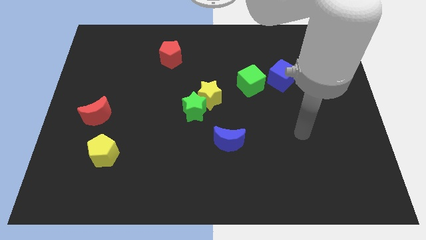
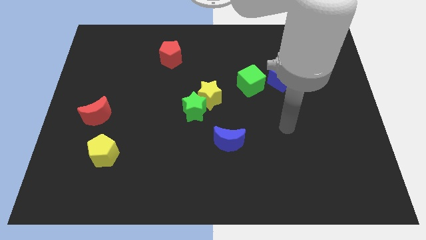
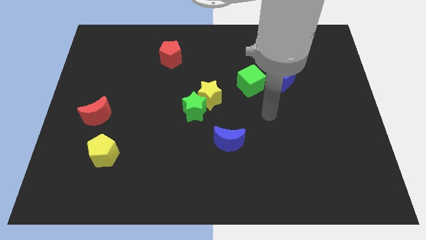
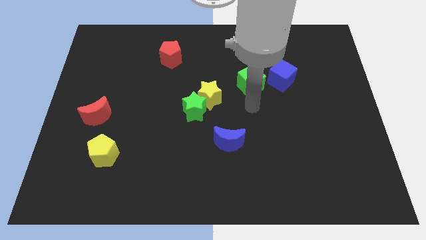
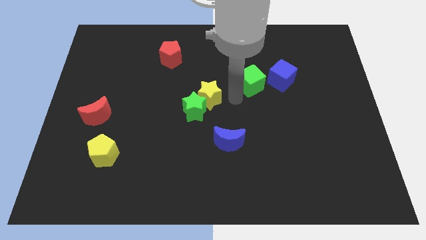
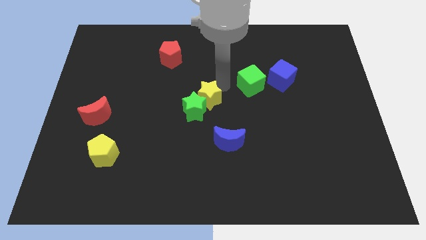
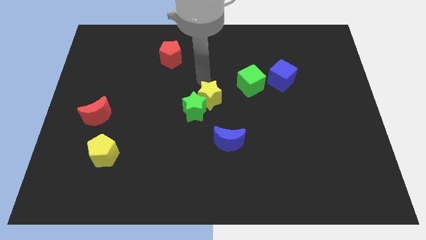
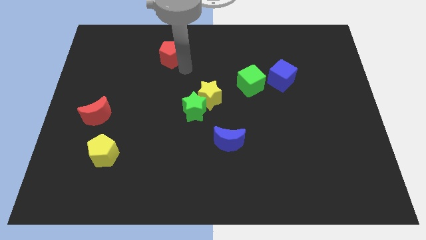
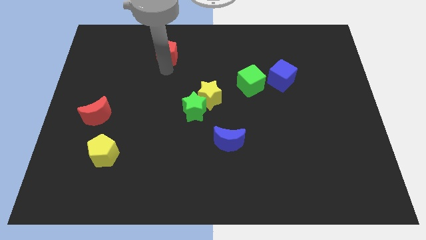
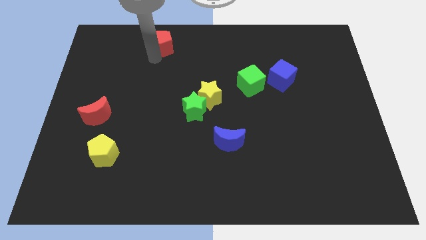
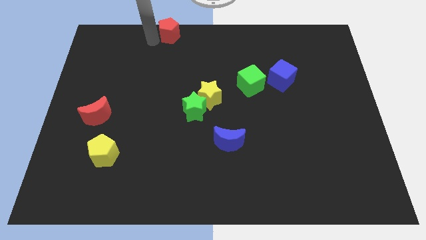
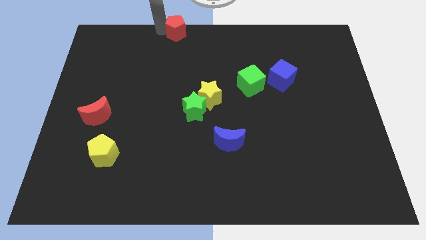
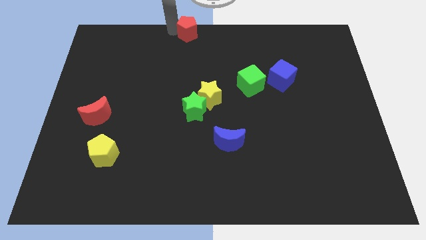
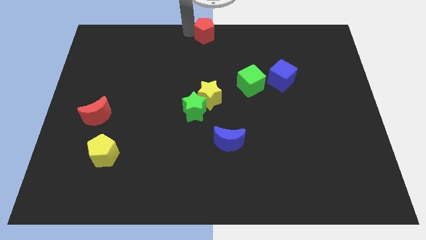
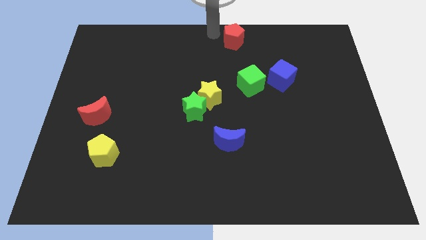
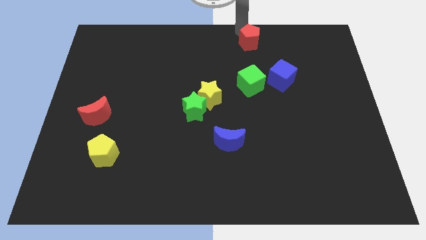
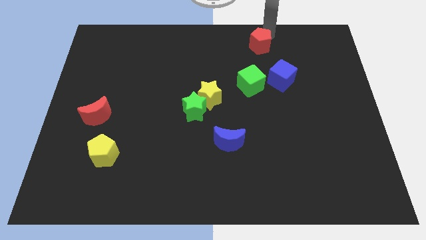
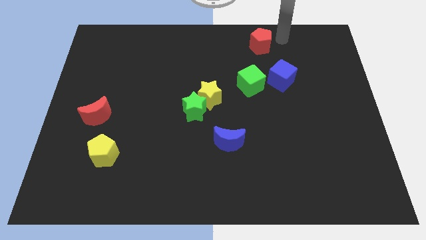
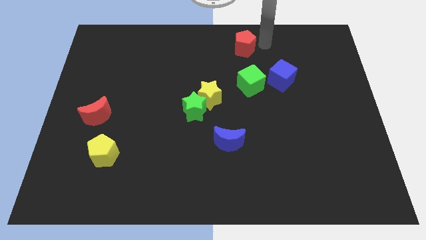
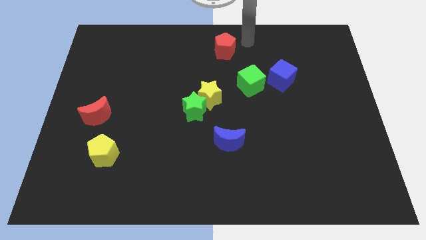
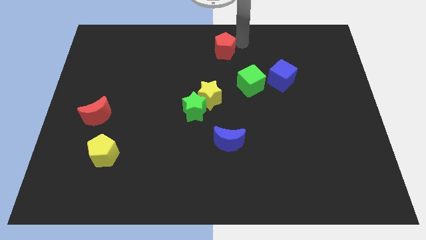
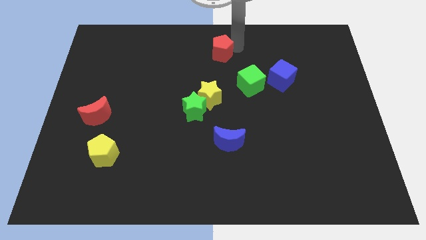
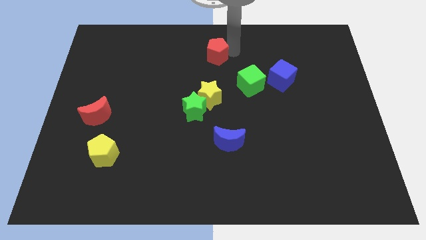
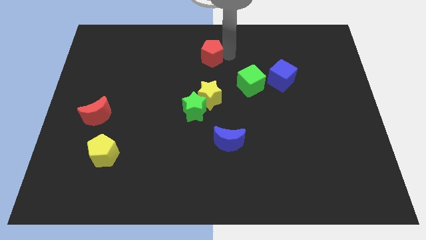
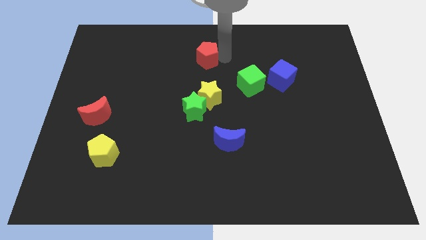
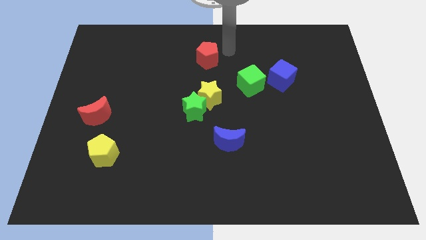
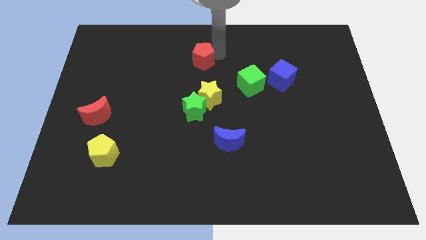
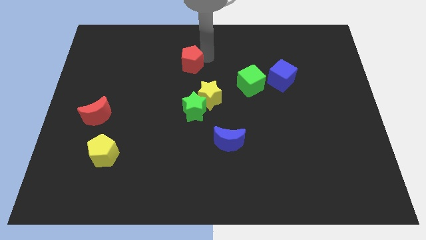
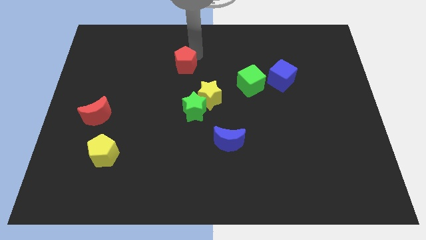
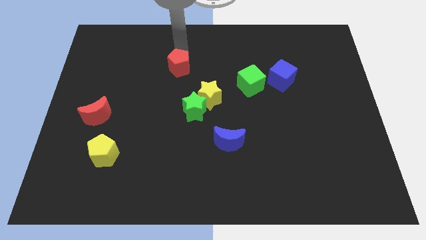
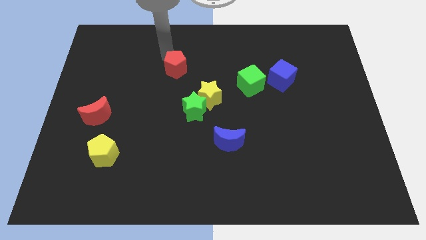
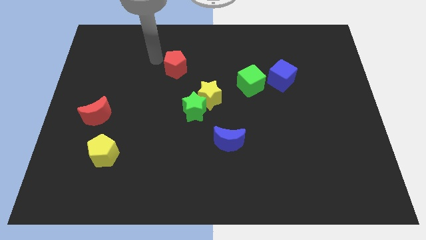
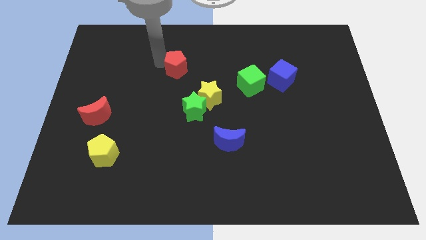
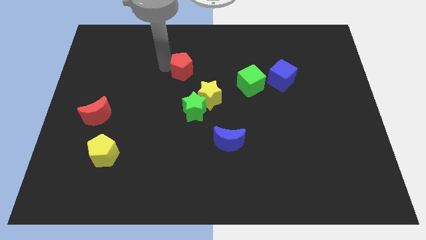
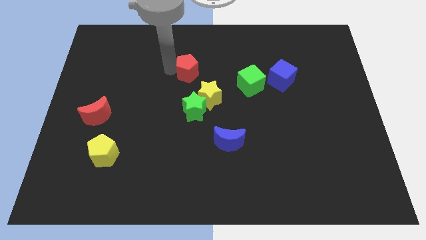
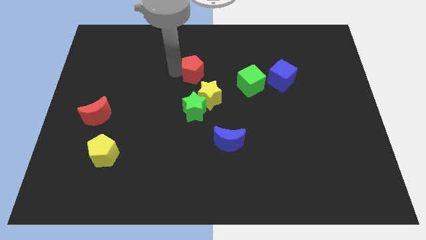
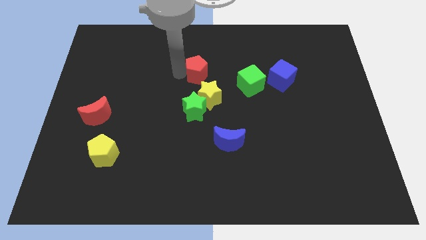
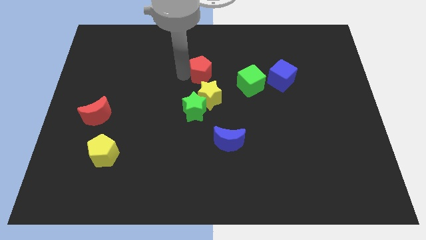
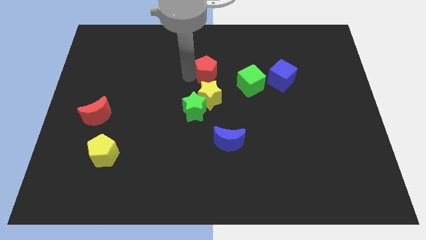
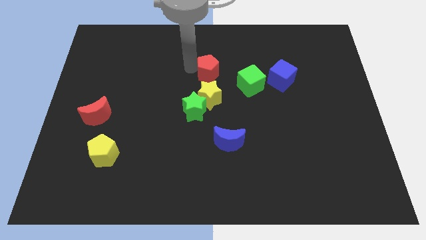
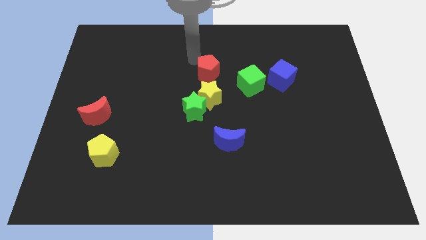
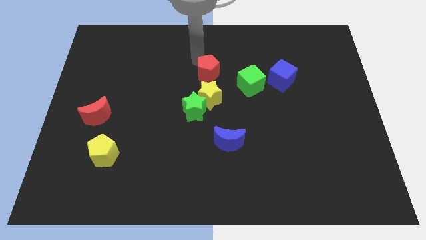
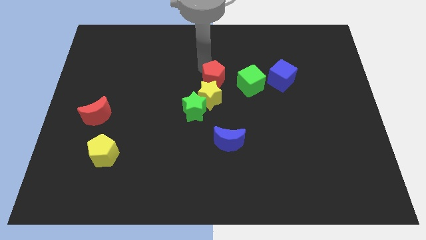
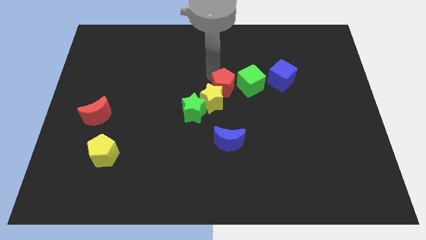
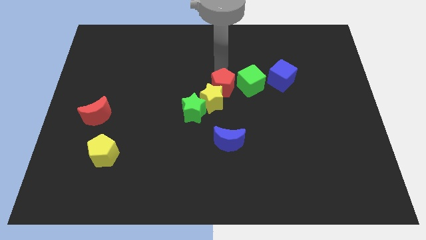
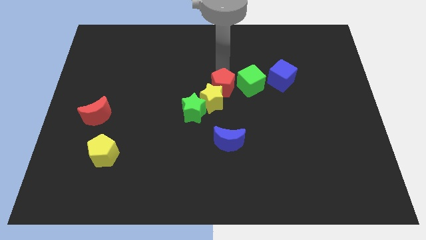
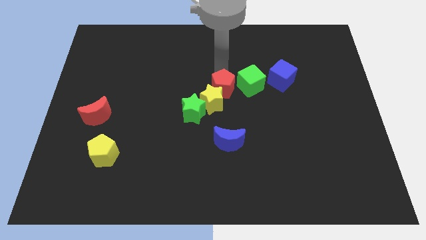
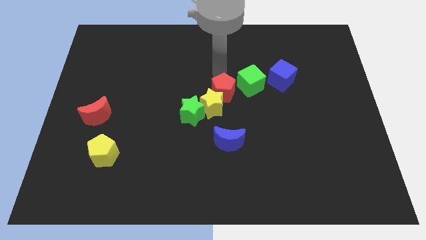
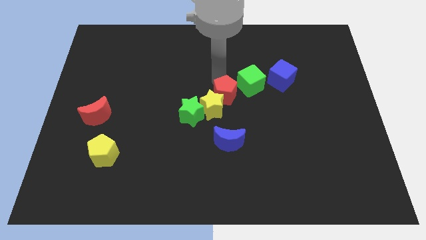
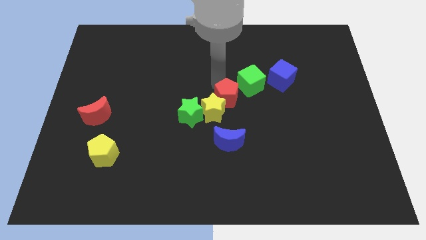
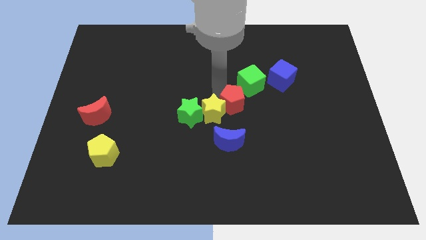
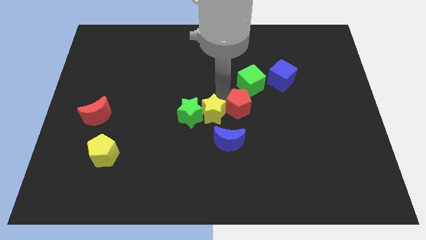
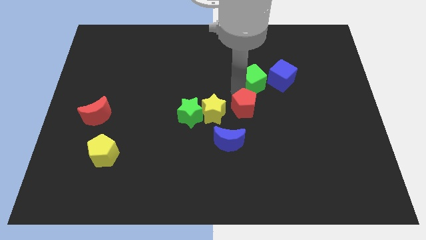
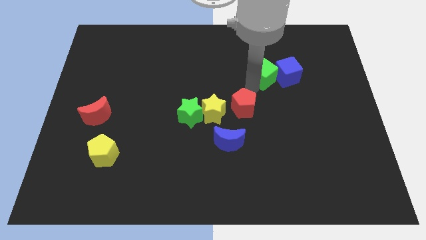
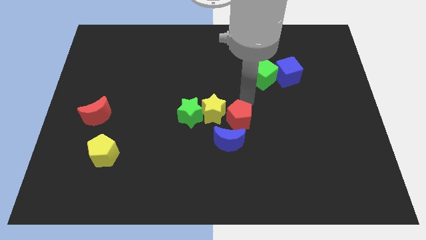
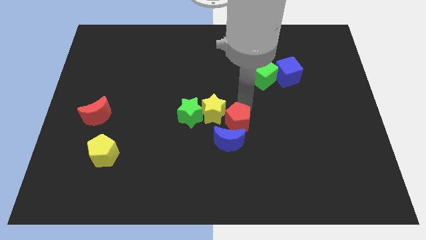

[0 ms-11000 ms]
slide the red pentagon to the blue moon

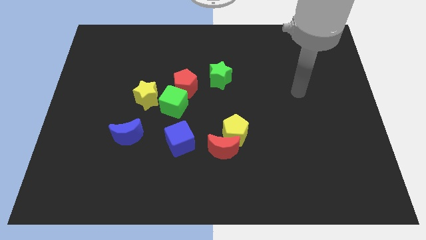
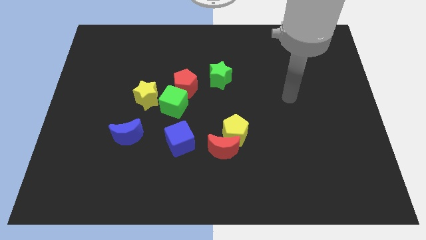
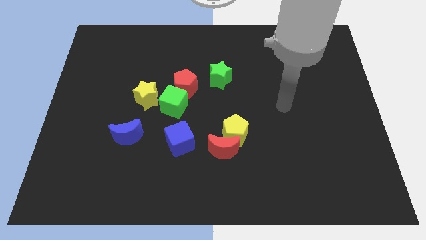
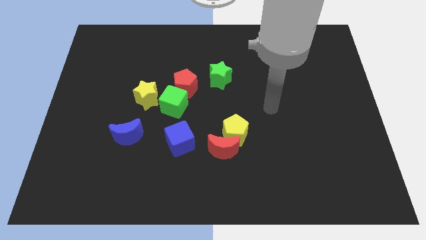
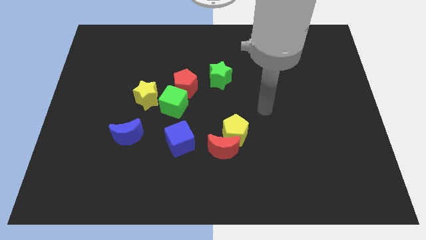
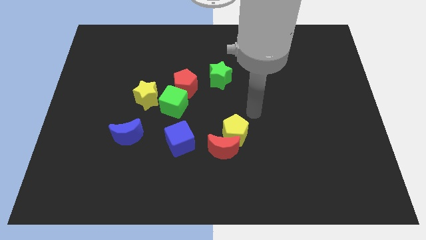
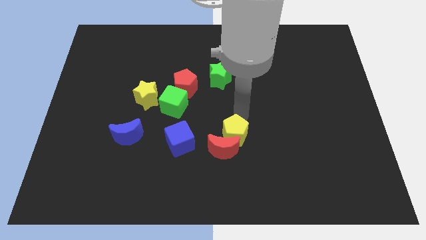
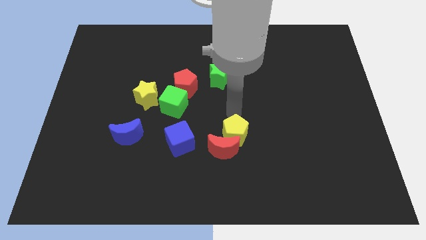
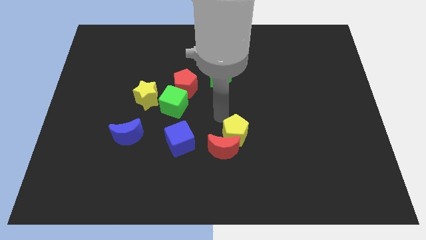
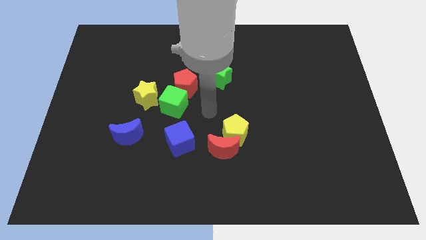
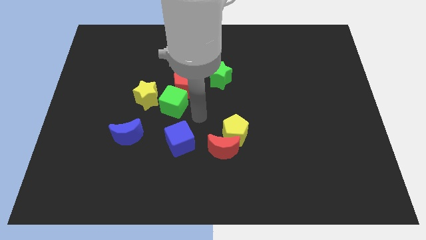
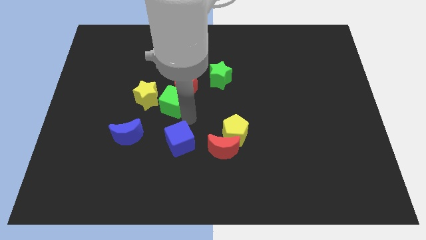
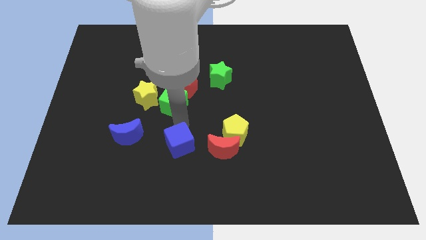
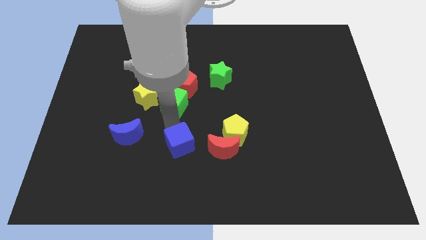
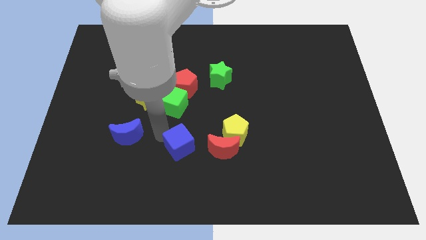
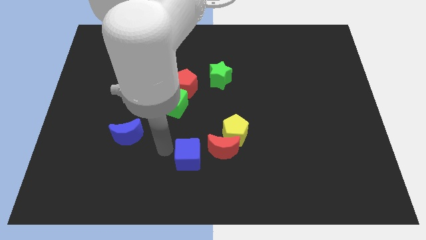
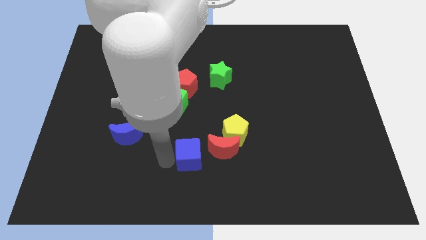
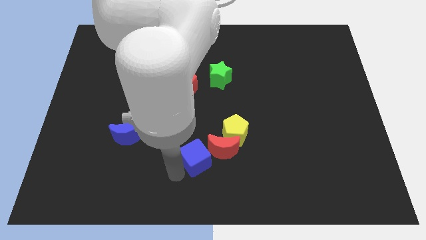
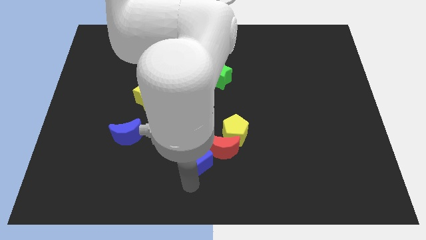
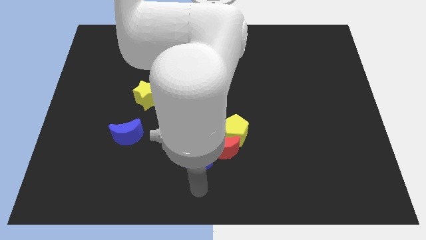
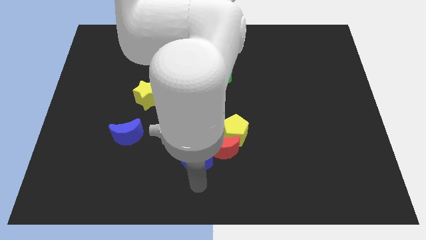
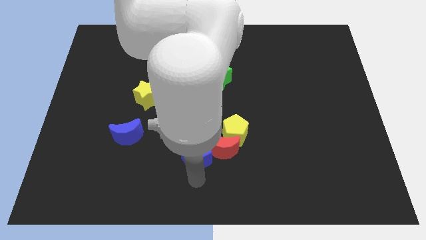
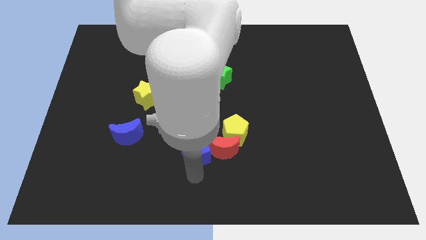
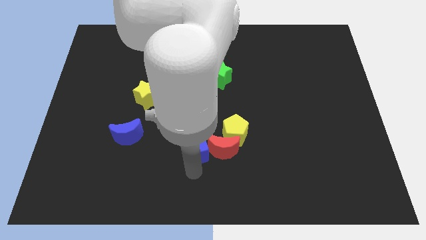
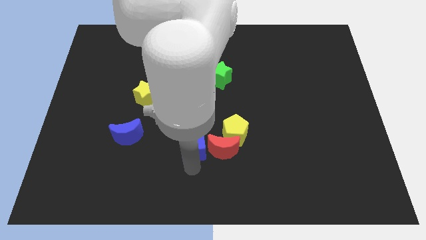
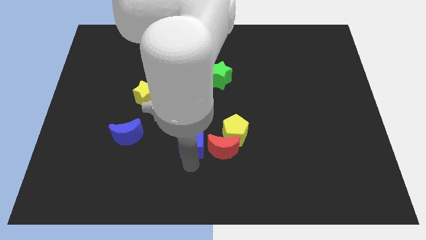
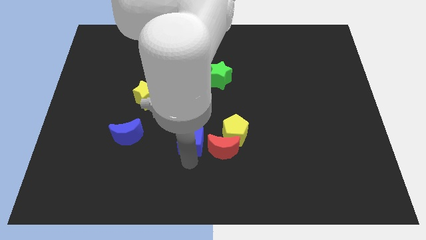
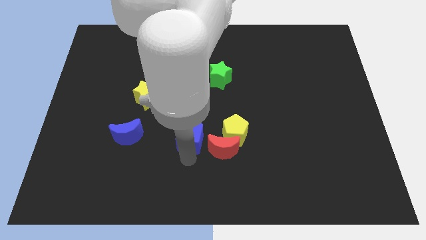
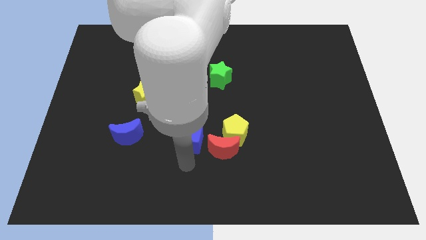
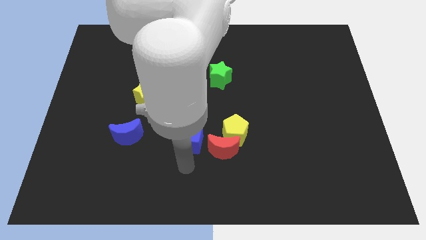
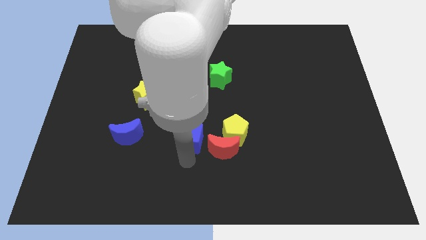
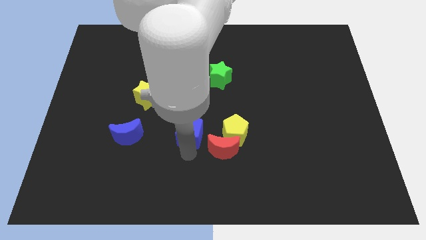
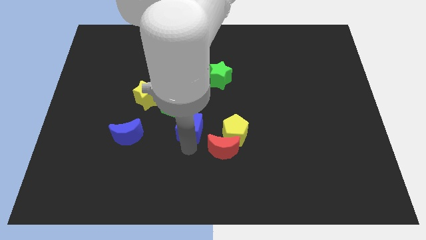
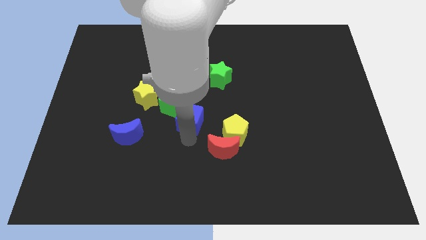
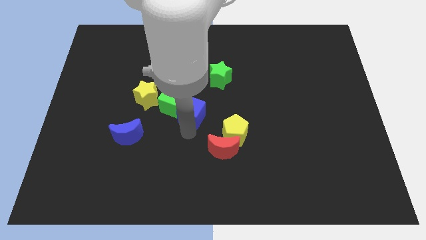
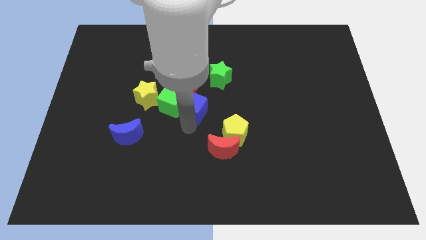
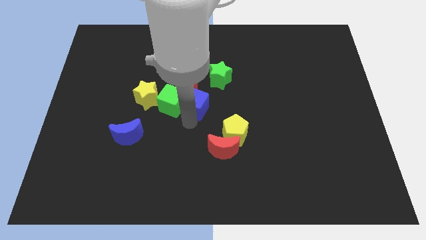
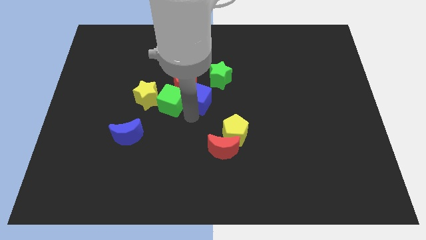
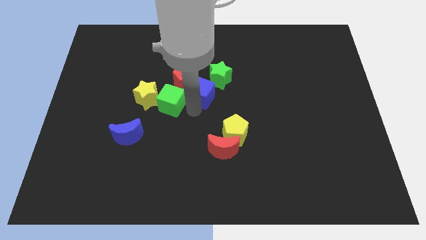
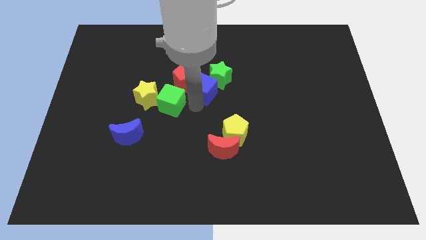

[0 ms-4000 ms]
slide the blue cube next to the green star
